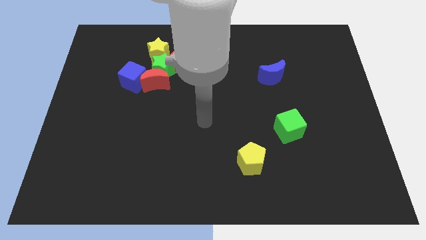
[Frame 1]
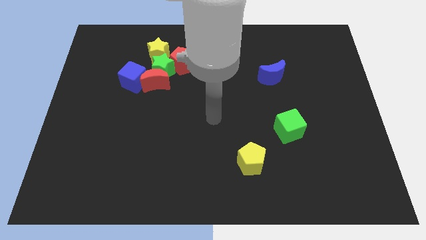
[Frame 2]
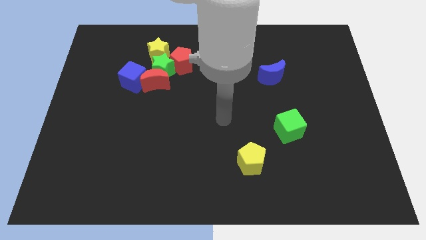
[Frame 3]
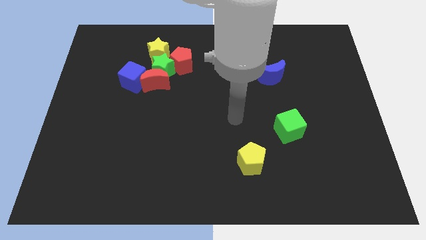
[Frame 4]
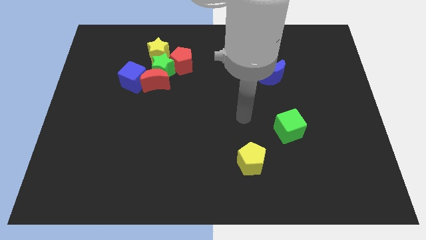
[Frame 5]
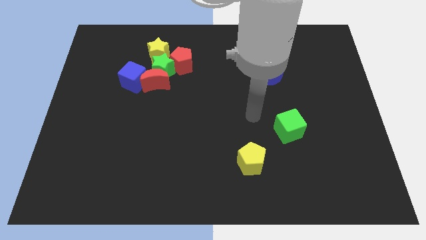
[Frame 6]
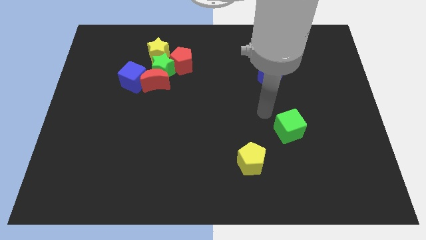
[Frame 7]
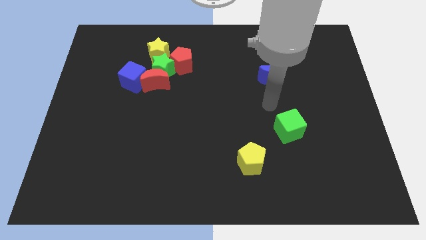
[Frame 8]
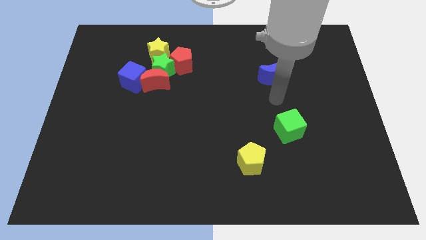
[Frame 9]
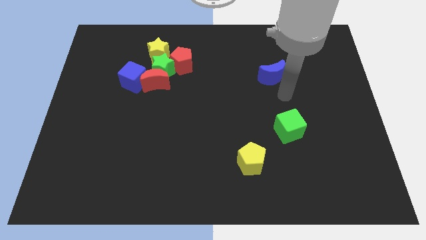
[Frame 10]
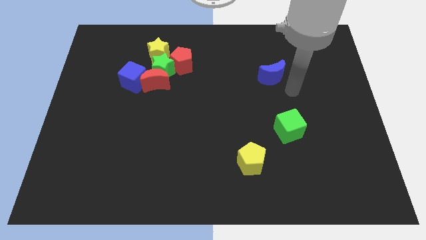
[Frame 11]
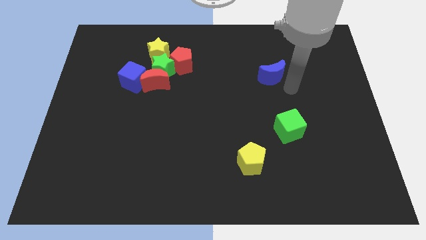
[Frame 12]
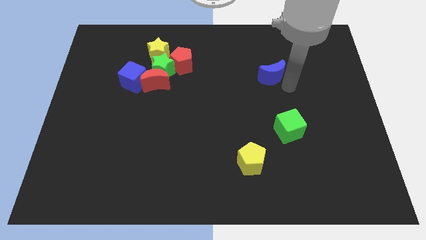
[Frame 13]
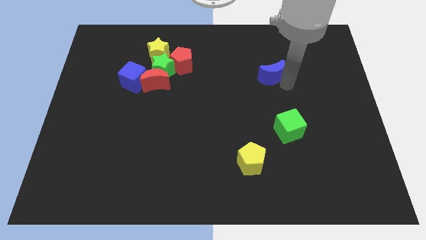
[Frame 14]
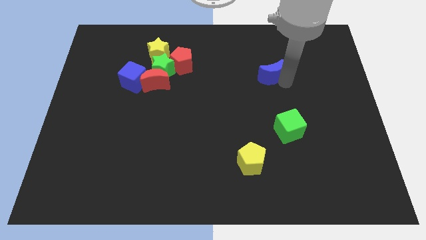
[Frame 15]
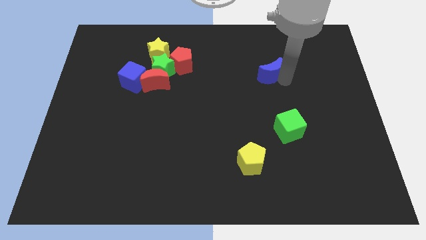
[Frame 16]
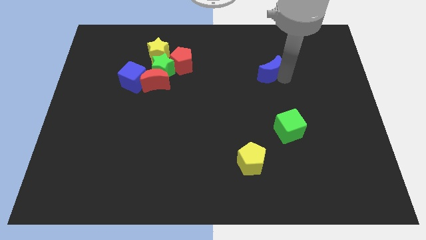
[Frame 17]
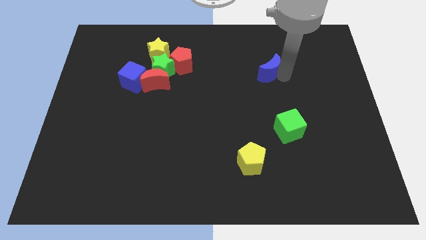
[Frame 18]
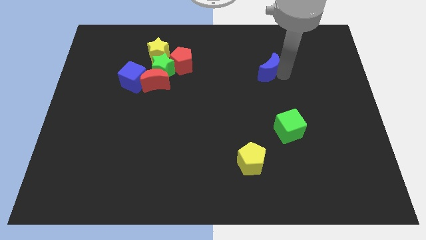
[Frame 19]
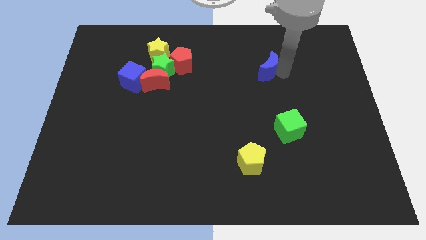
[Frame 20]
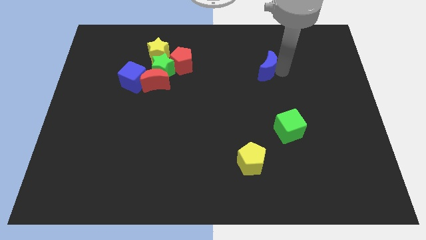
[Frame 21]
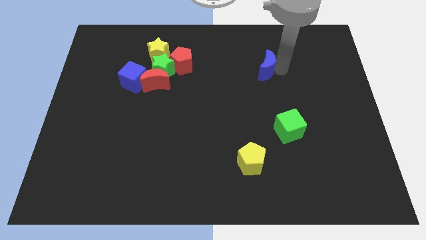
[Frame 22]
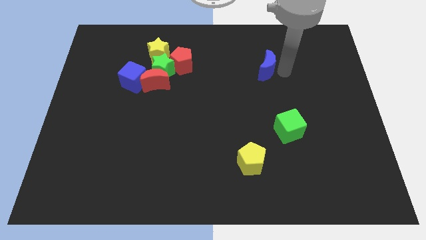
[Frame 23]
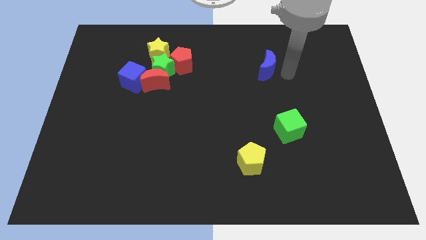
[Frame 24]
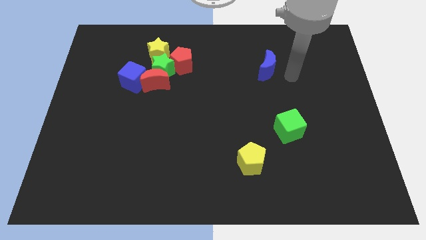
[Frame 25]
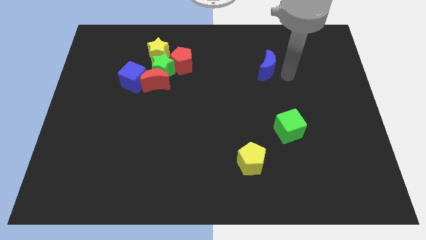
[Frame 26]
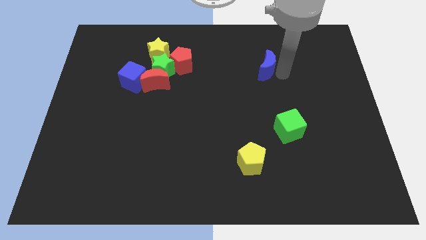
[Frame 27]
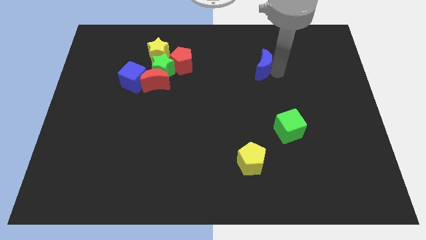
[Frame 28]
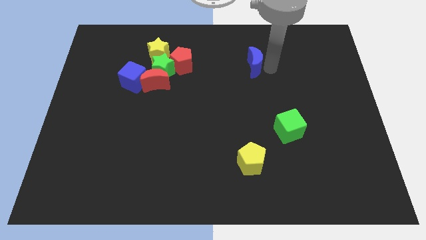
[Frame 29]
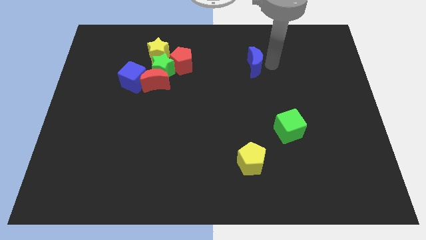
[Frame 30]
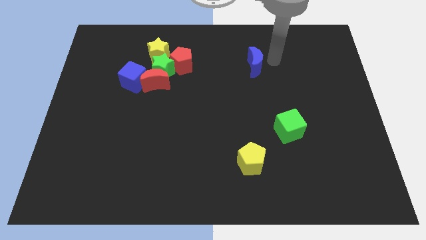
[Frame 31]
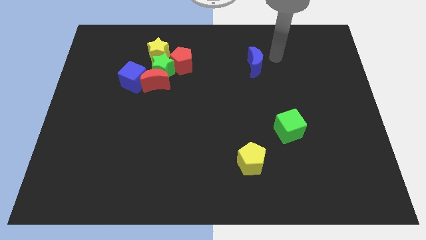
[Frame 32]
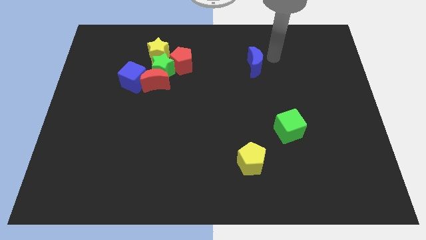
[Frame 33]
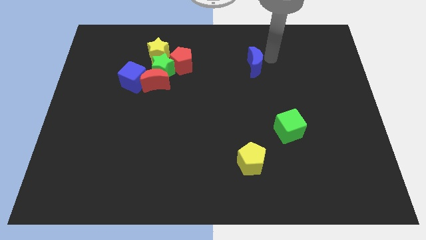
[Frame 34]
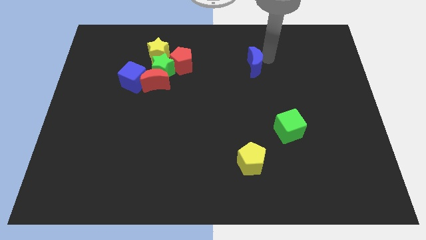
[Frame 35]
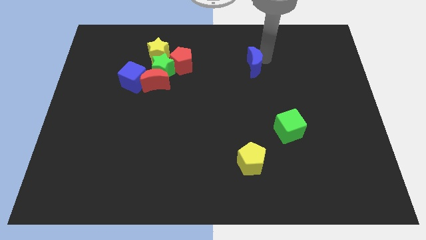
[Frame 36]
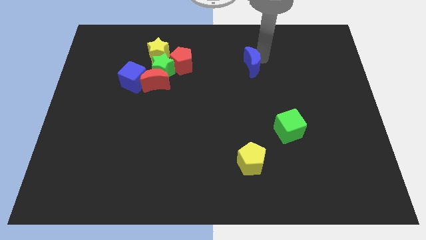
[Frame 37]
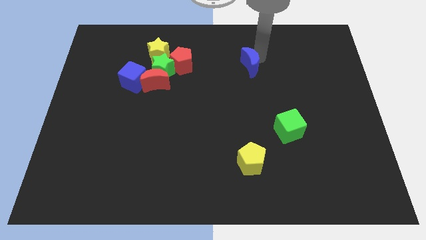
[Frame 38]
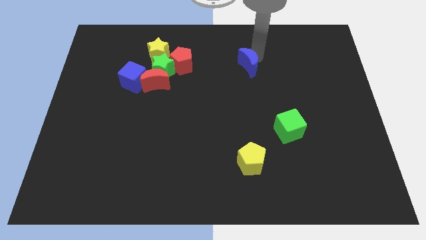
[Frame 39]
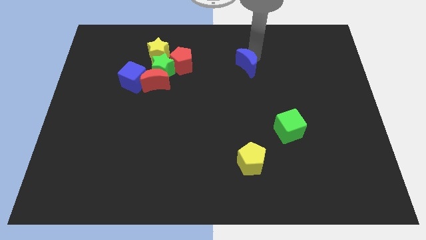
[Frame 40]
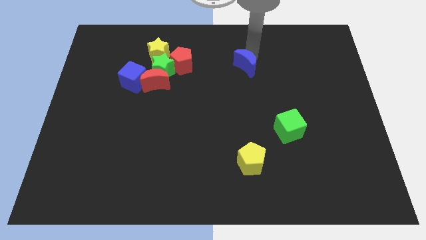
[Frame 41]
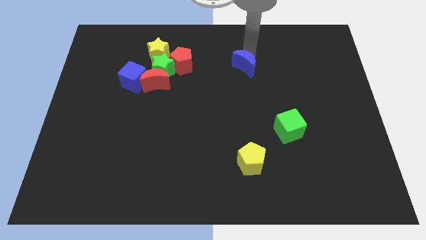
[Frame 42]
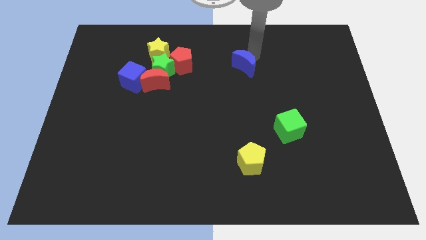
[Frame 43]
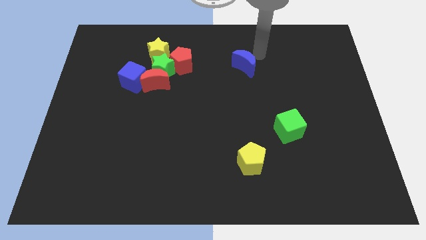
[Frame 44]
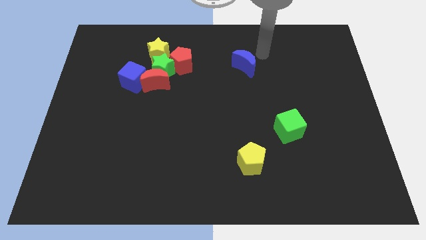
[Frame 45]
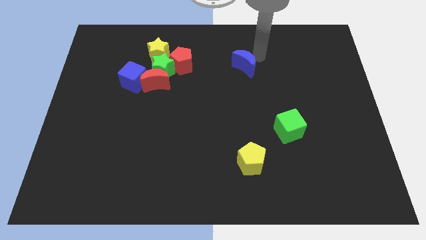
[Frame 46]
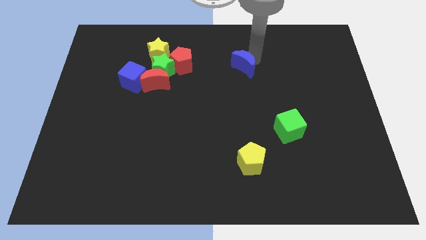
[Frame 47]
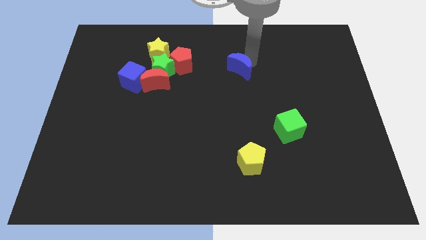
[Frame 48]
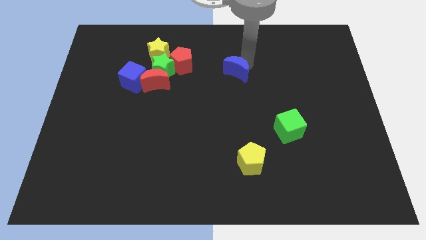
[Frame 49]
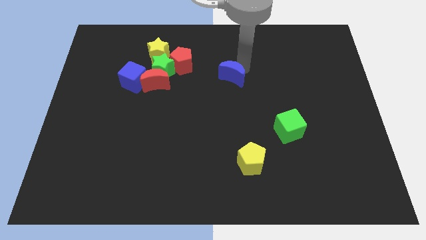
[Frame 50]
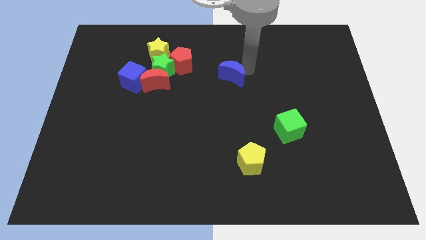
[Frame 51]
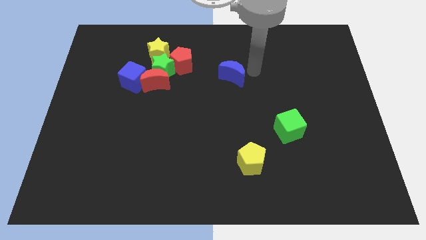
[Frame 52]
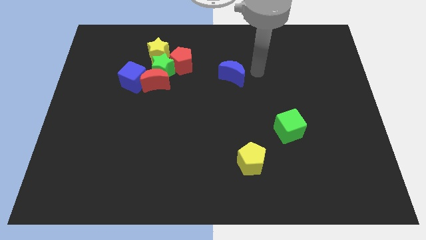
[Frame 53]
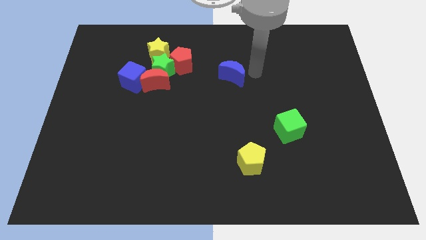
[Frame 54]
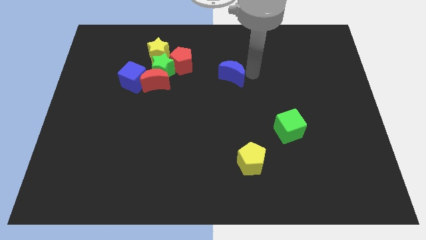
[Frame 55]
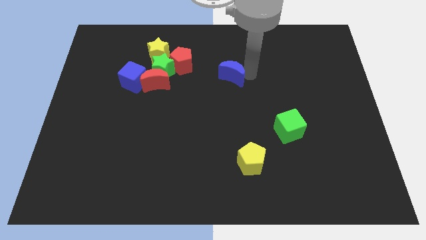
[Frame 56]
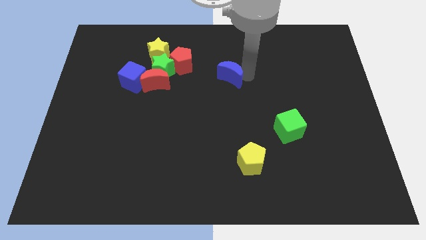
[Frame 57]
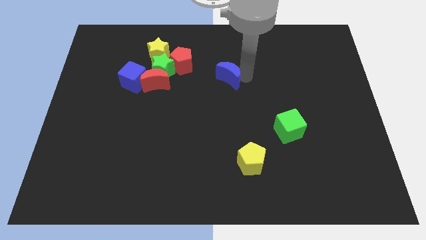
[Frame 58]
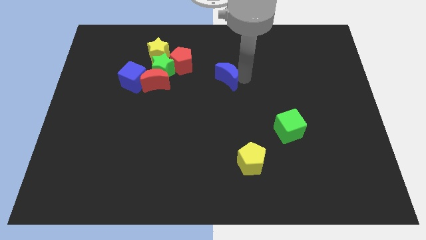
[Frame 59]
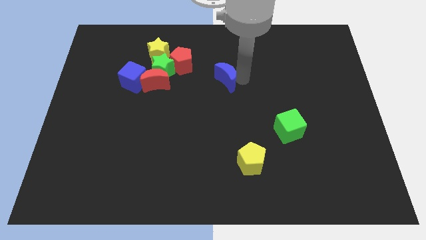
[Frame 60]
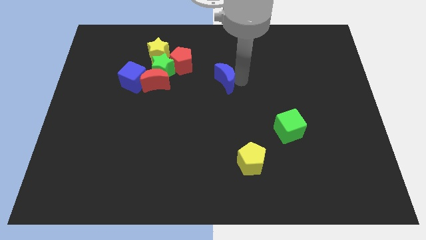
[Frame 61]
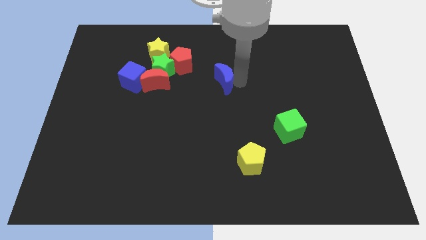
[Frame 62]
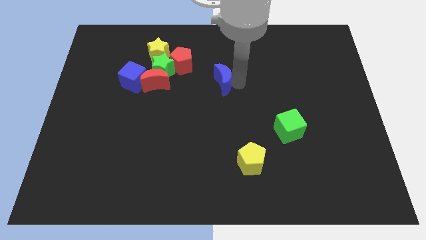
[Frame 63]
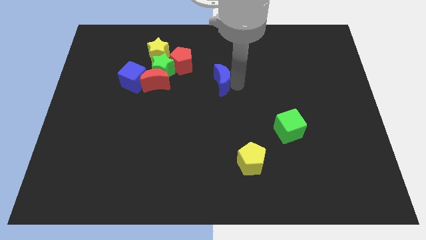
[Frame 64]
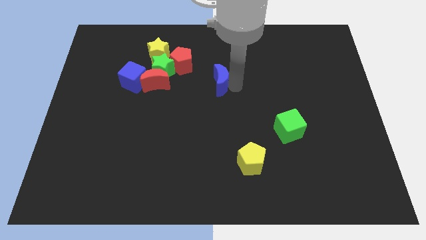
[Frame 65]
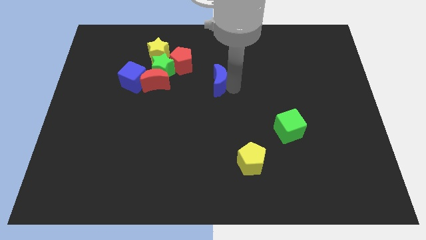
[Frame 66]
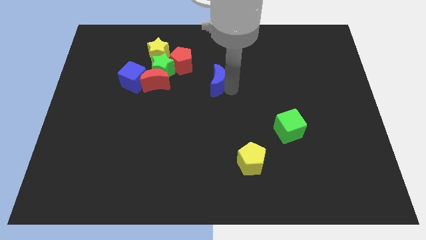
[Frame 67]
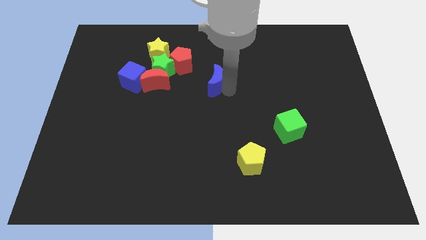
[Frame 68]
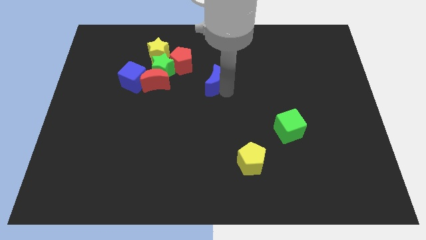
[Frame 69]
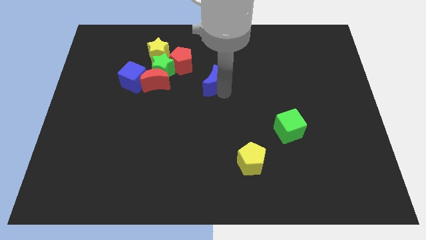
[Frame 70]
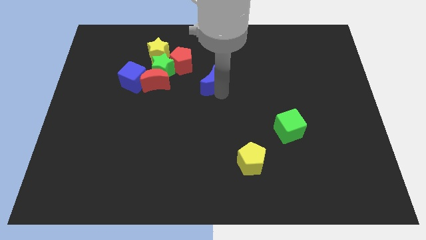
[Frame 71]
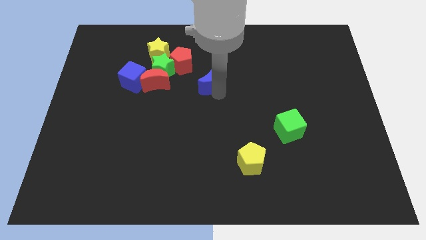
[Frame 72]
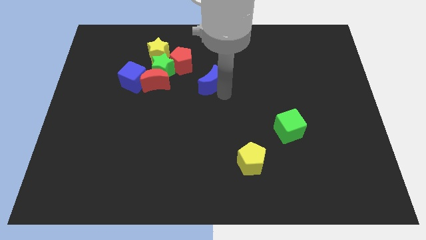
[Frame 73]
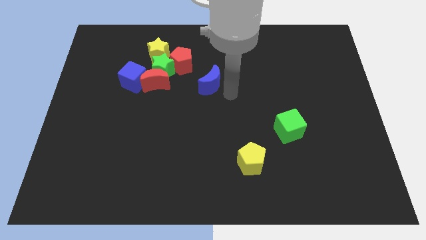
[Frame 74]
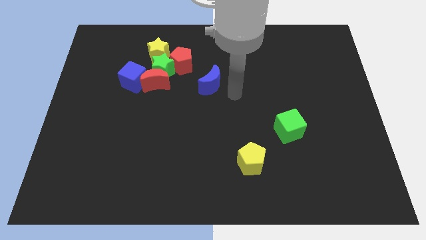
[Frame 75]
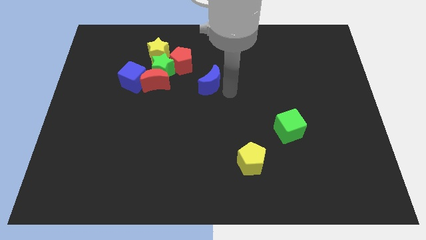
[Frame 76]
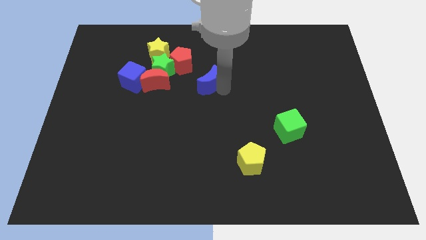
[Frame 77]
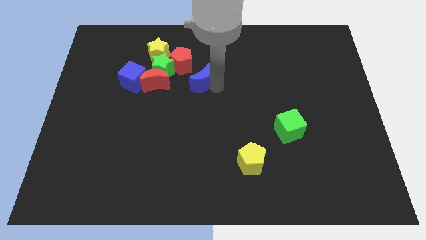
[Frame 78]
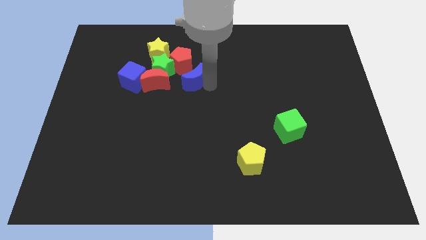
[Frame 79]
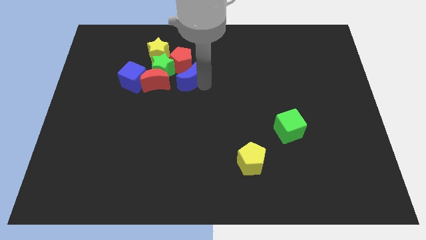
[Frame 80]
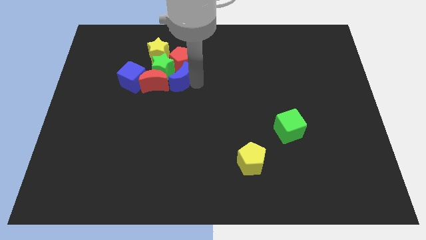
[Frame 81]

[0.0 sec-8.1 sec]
move the blue moon towards the green star
